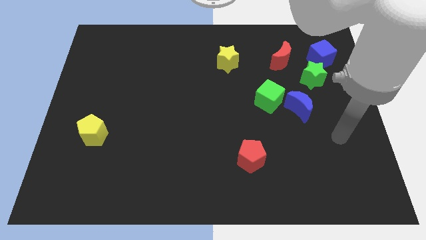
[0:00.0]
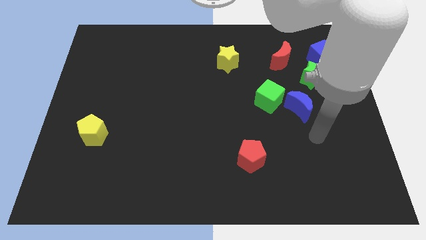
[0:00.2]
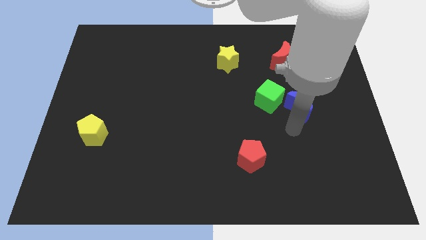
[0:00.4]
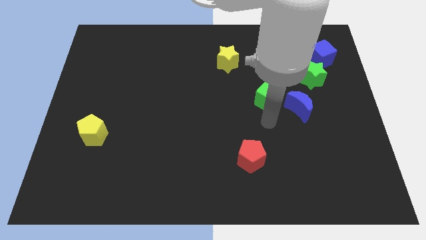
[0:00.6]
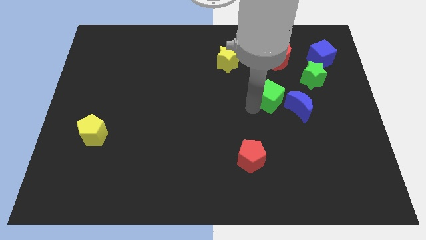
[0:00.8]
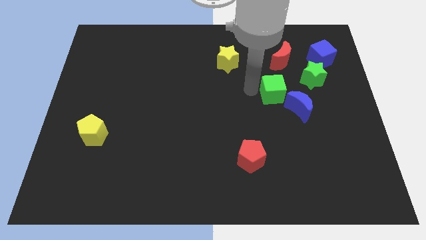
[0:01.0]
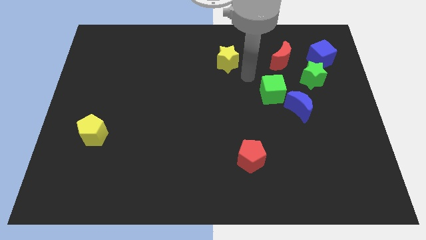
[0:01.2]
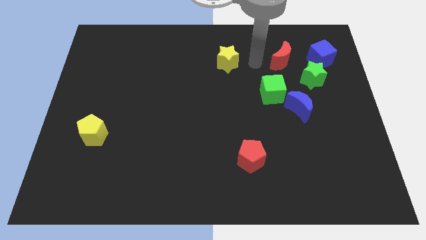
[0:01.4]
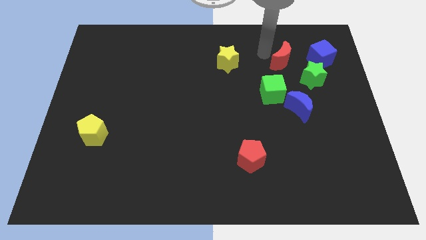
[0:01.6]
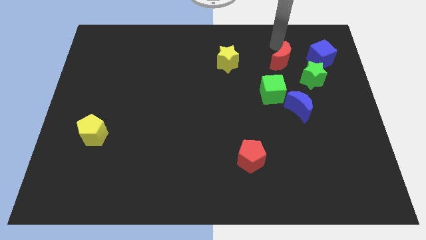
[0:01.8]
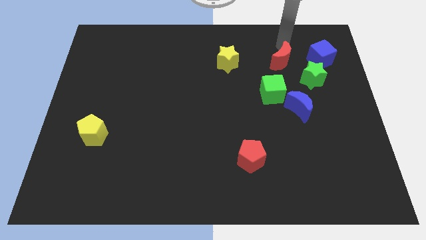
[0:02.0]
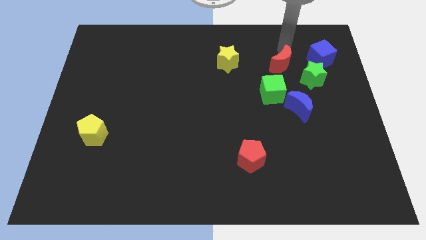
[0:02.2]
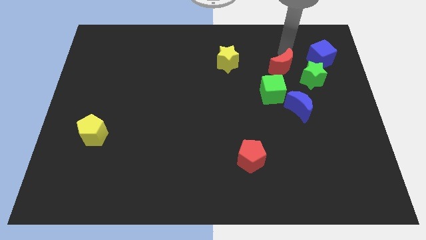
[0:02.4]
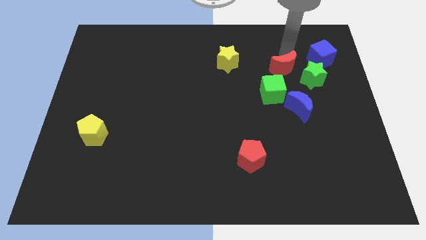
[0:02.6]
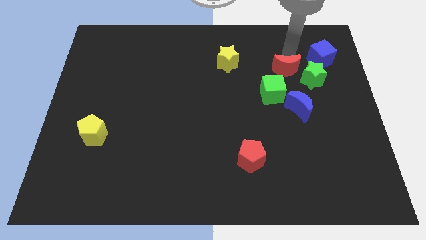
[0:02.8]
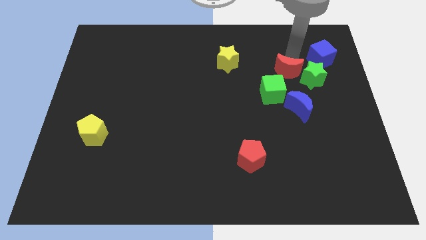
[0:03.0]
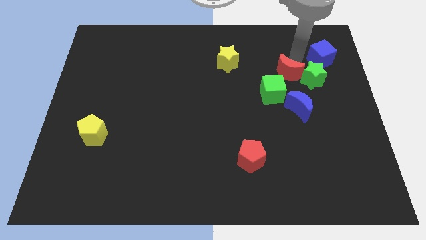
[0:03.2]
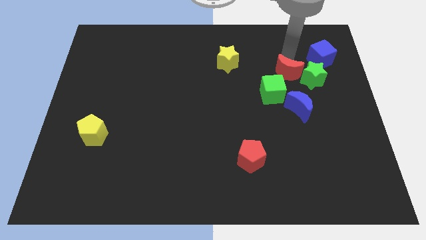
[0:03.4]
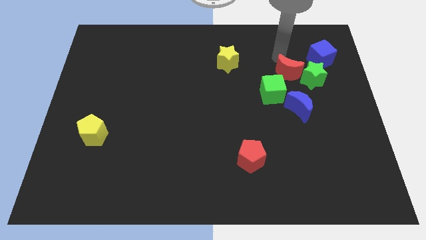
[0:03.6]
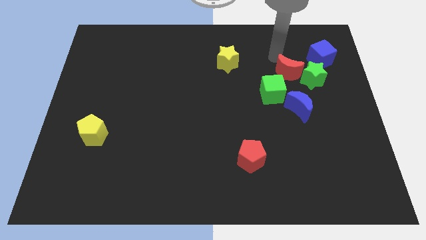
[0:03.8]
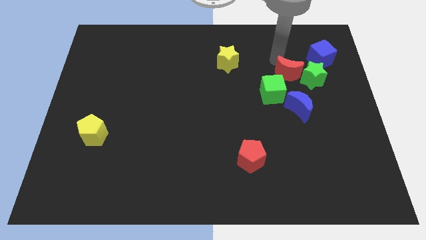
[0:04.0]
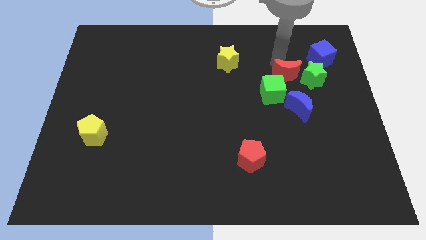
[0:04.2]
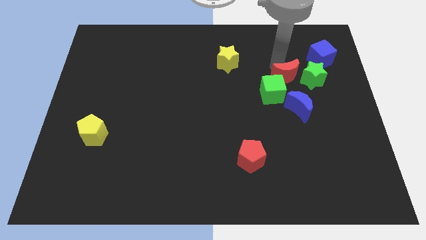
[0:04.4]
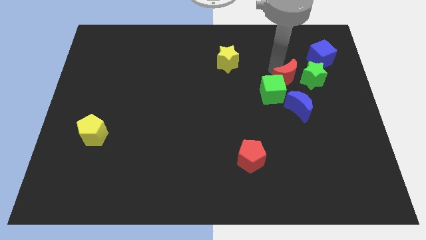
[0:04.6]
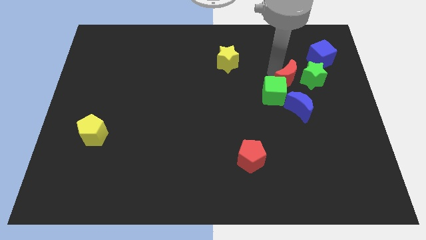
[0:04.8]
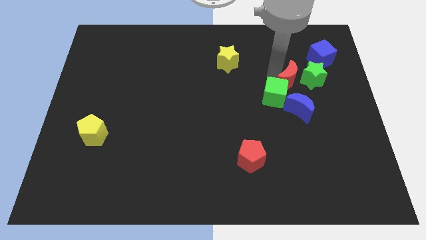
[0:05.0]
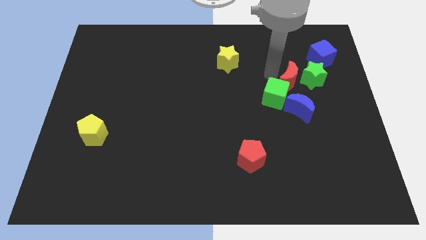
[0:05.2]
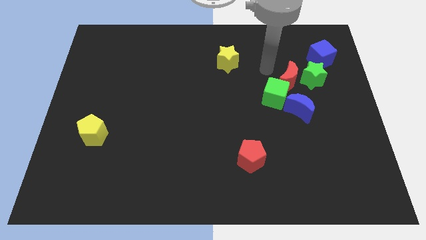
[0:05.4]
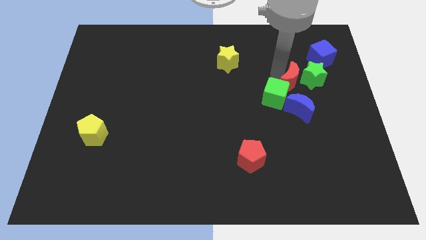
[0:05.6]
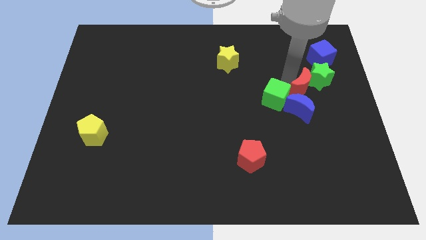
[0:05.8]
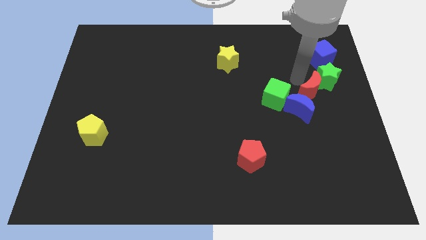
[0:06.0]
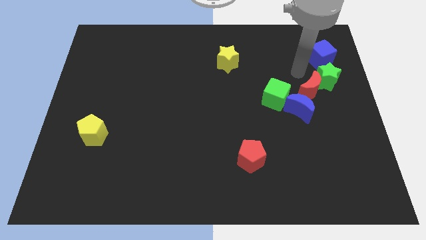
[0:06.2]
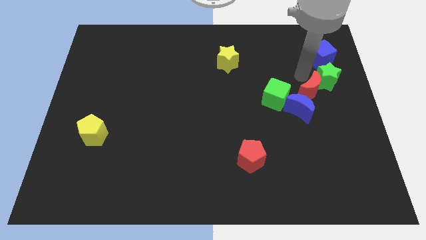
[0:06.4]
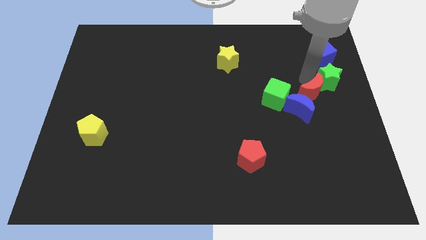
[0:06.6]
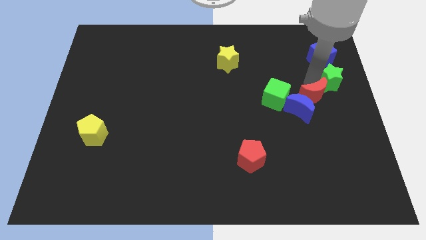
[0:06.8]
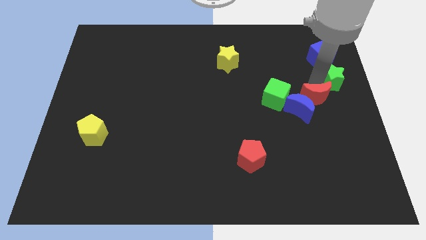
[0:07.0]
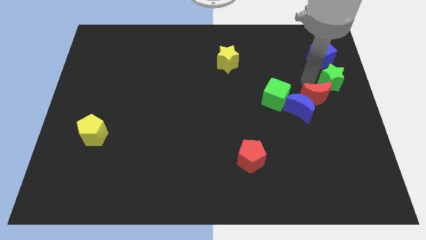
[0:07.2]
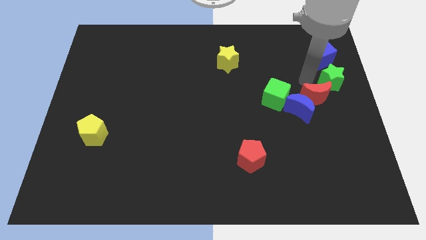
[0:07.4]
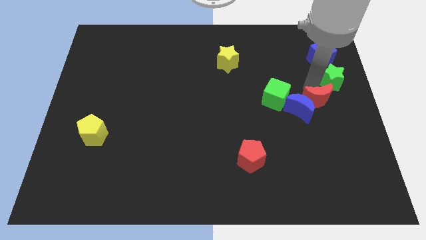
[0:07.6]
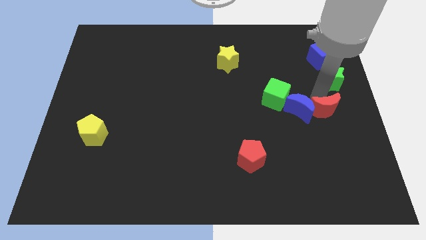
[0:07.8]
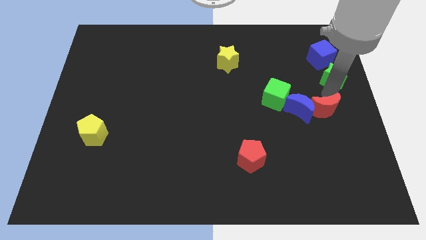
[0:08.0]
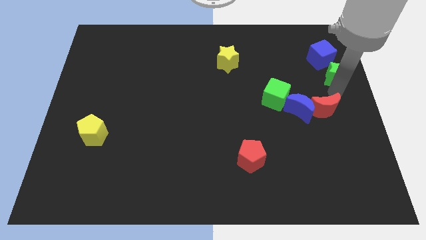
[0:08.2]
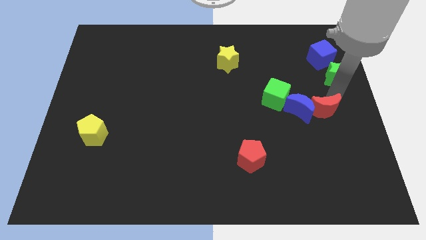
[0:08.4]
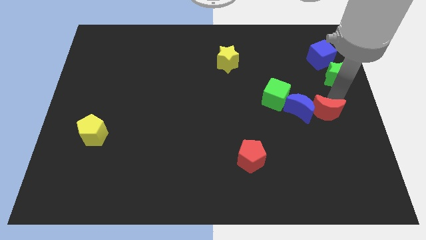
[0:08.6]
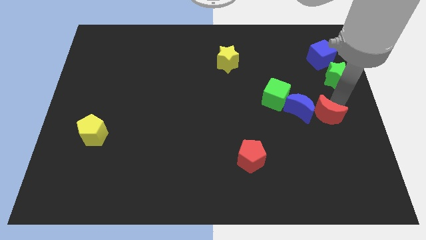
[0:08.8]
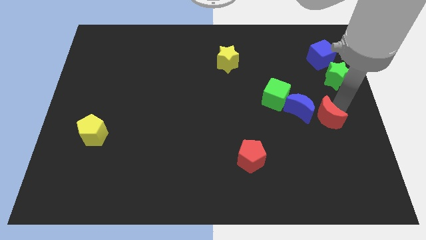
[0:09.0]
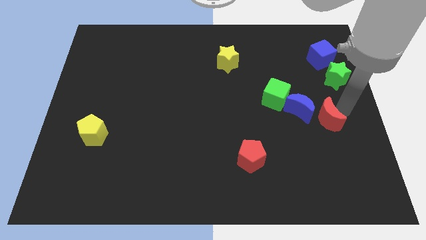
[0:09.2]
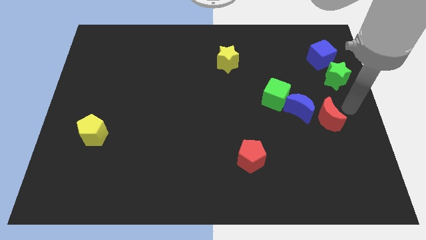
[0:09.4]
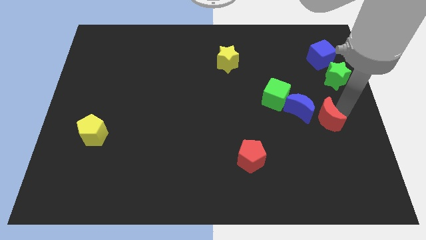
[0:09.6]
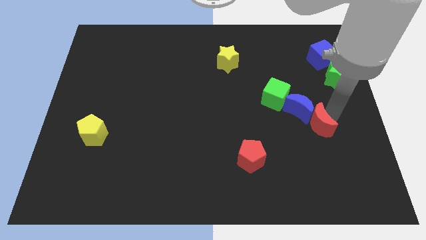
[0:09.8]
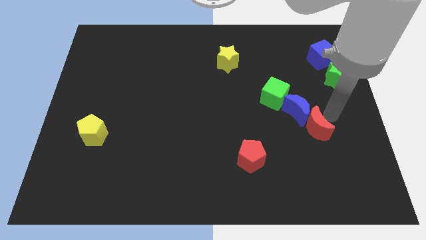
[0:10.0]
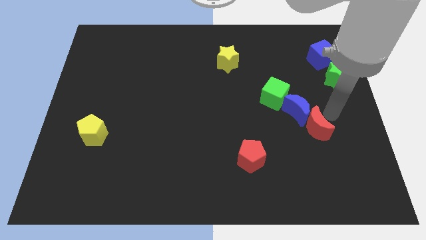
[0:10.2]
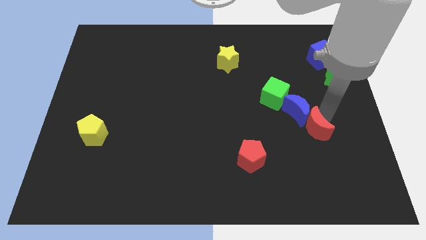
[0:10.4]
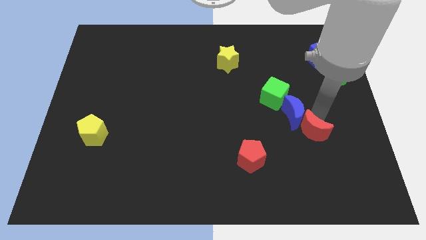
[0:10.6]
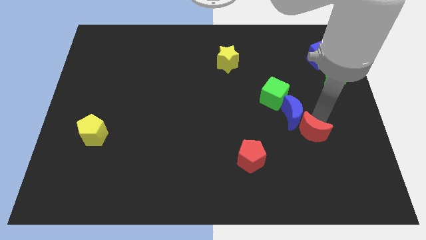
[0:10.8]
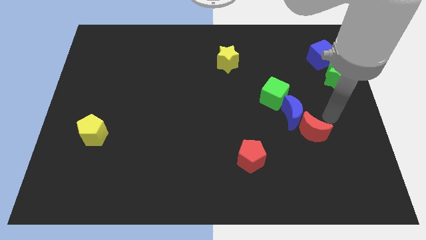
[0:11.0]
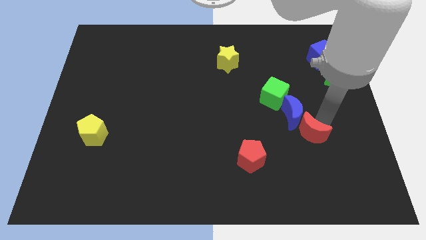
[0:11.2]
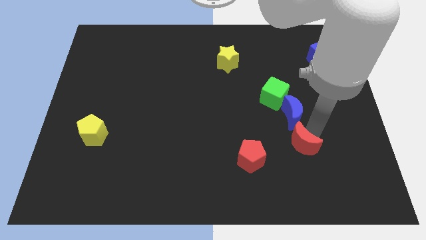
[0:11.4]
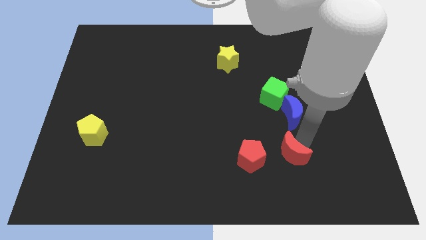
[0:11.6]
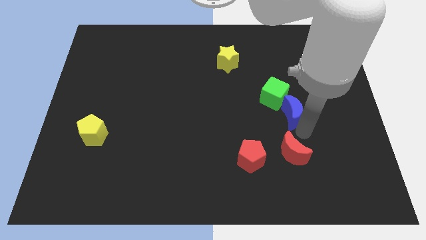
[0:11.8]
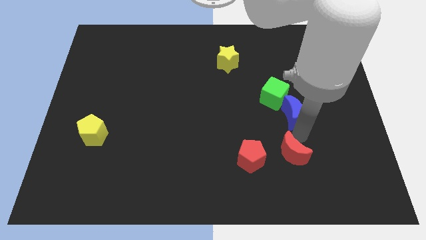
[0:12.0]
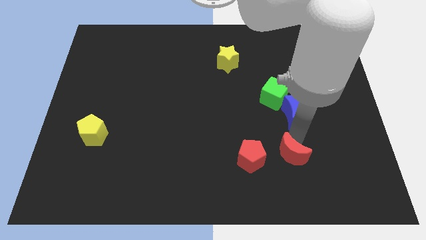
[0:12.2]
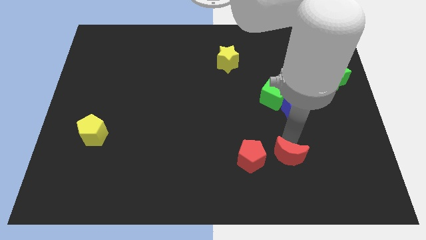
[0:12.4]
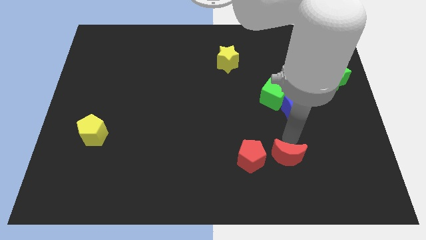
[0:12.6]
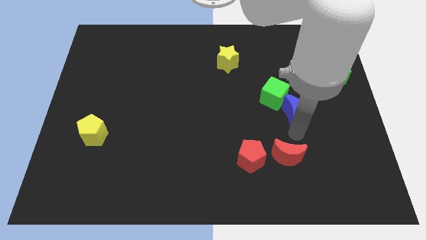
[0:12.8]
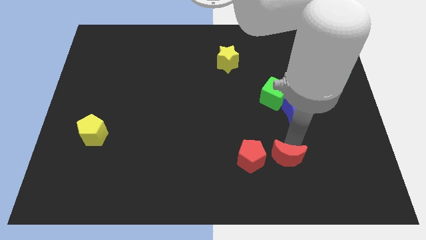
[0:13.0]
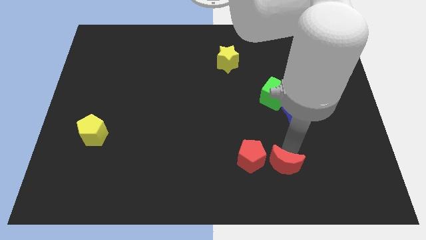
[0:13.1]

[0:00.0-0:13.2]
move the red moon to the bottom right of the red pentagon

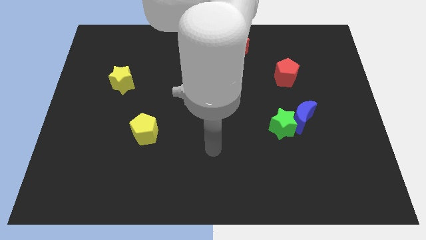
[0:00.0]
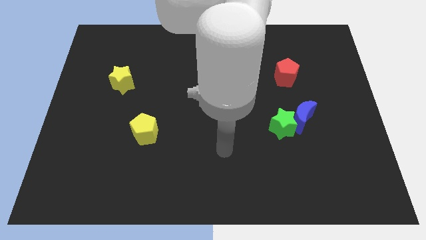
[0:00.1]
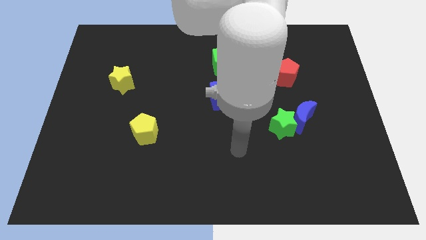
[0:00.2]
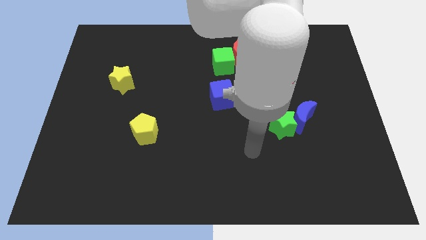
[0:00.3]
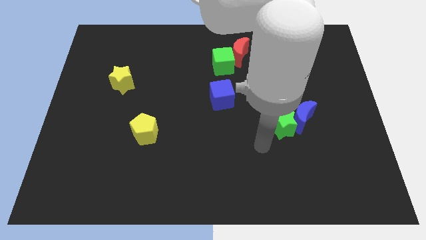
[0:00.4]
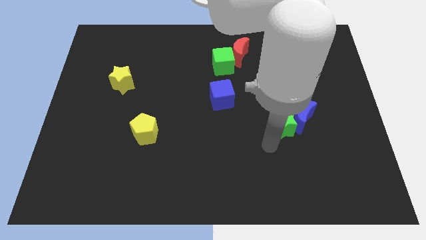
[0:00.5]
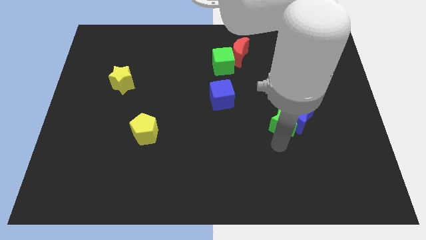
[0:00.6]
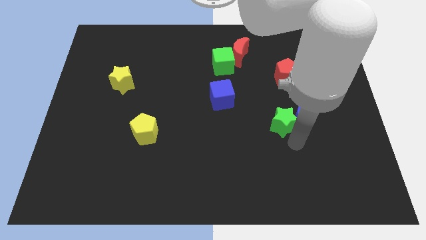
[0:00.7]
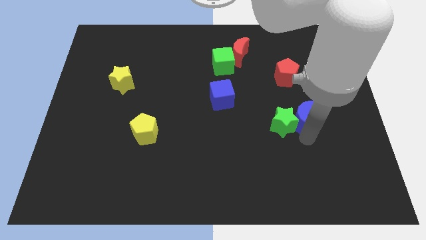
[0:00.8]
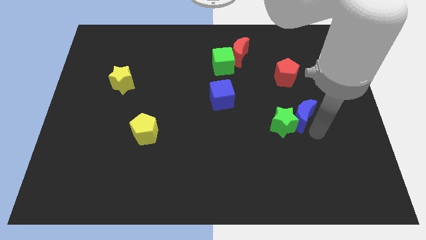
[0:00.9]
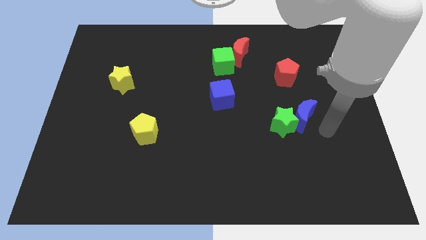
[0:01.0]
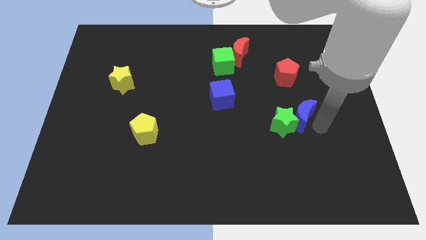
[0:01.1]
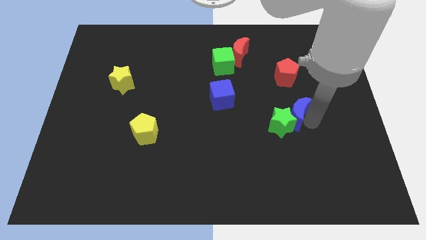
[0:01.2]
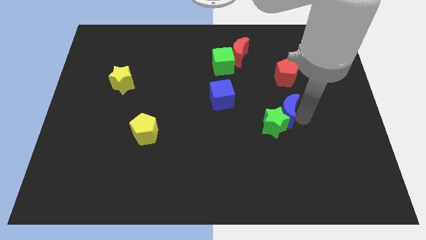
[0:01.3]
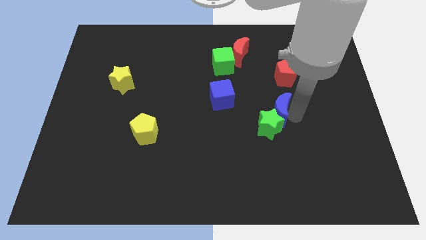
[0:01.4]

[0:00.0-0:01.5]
slide the blue moon just right of the blue cube
